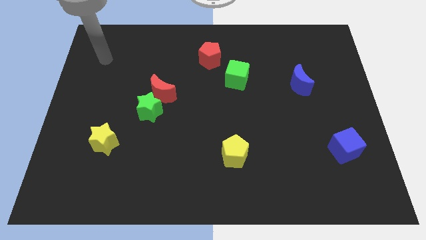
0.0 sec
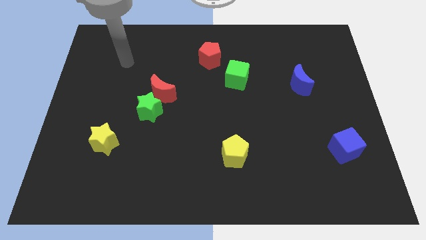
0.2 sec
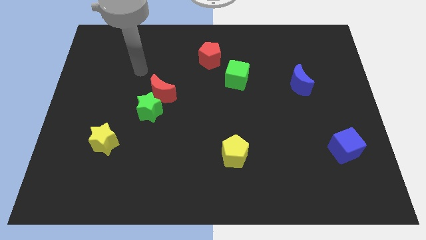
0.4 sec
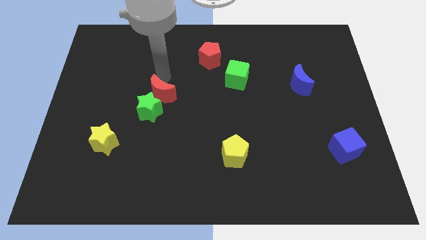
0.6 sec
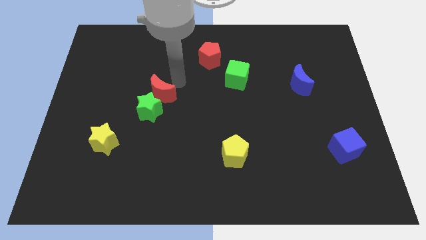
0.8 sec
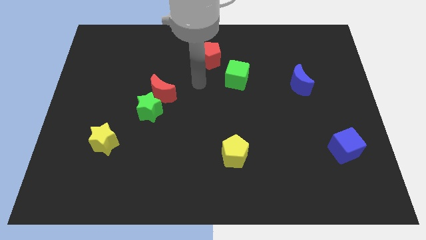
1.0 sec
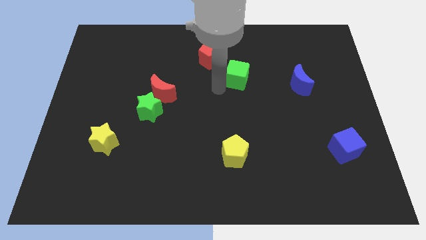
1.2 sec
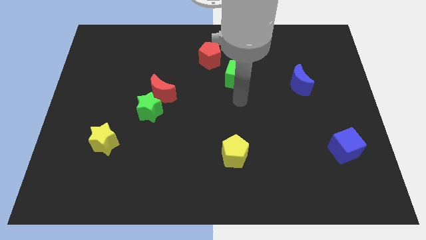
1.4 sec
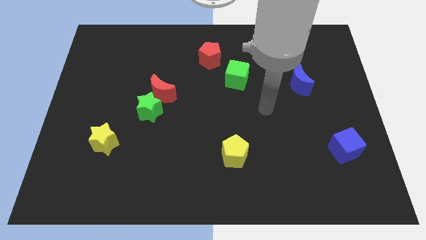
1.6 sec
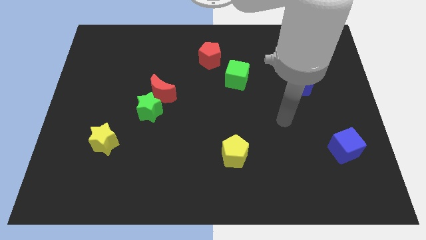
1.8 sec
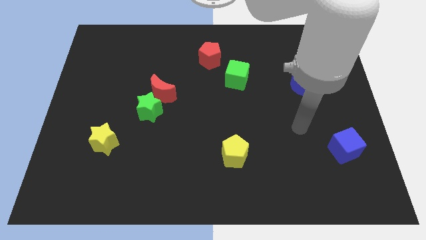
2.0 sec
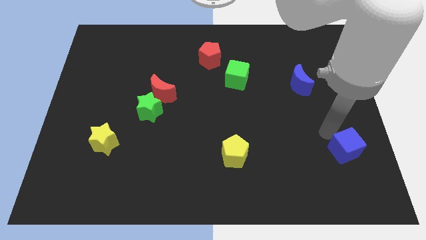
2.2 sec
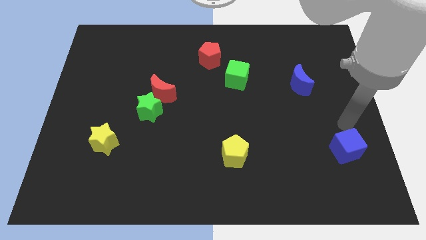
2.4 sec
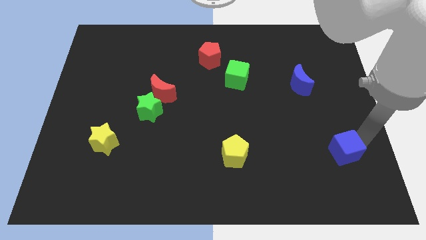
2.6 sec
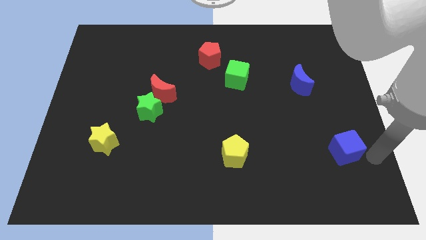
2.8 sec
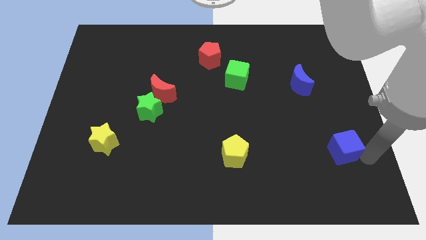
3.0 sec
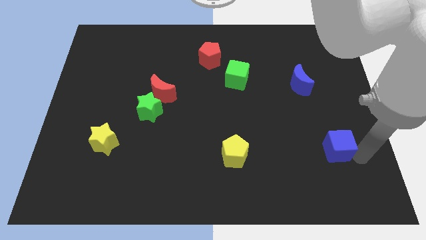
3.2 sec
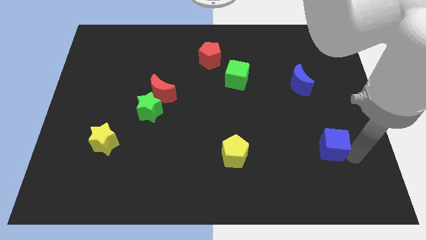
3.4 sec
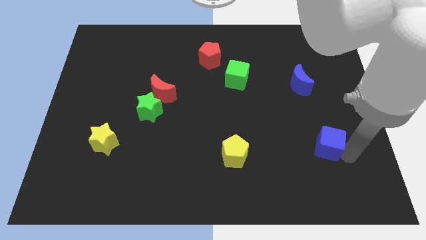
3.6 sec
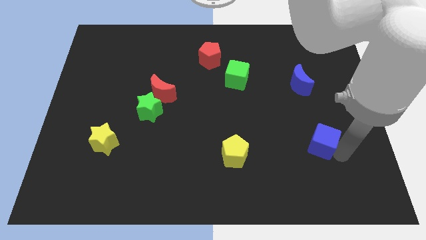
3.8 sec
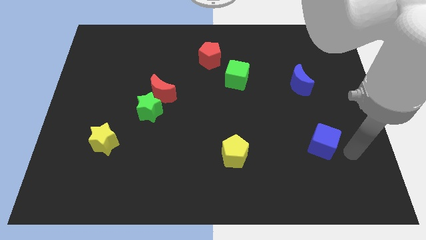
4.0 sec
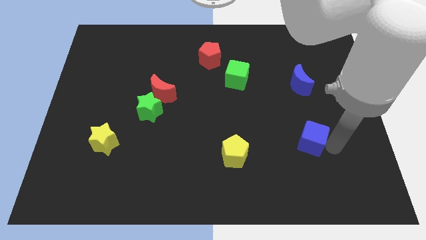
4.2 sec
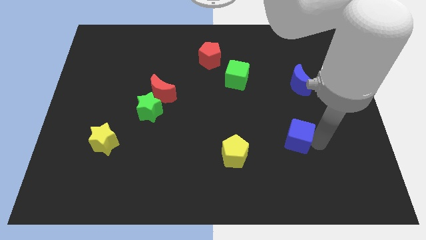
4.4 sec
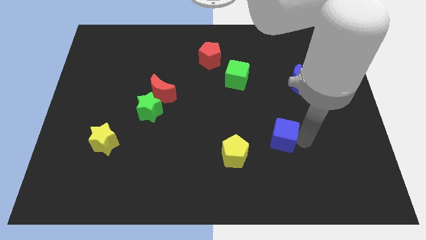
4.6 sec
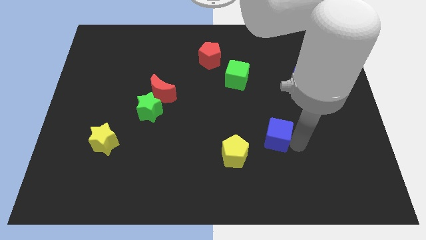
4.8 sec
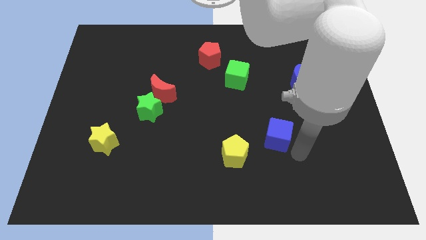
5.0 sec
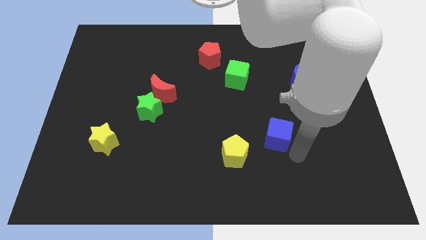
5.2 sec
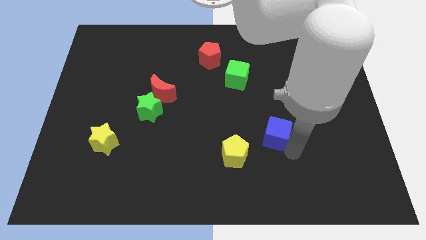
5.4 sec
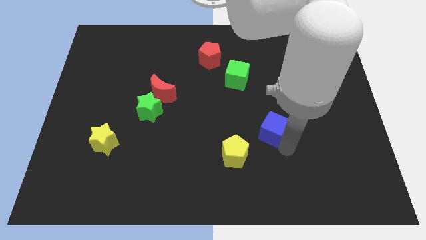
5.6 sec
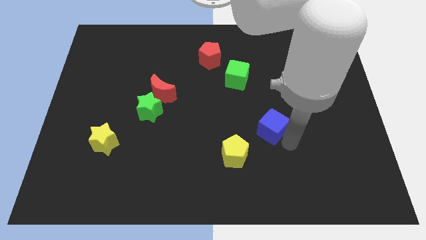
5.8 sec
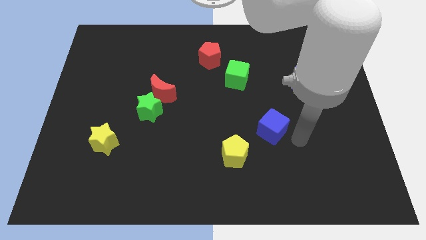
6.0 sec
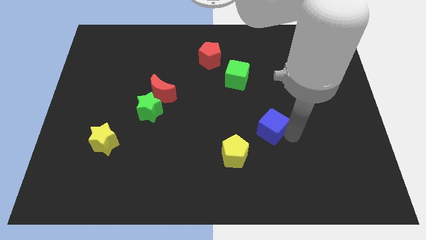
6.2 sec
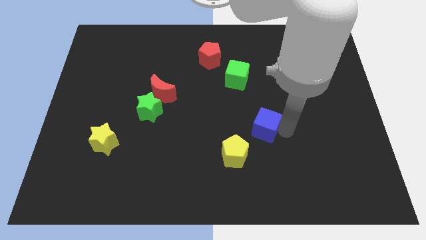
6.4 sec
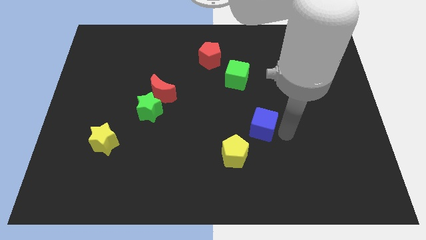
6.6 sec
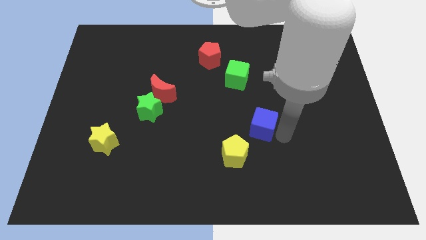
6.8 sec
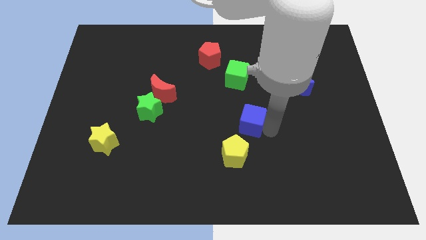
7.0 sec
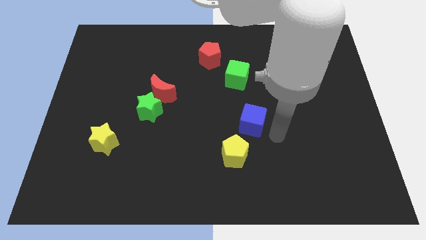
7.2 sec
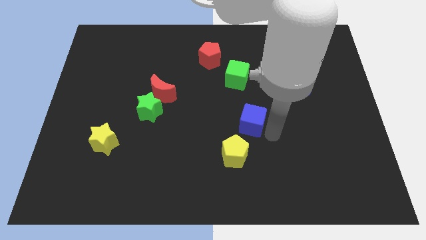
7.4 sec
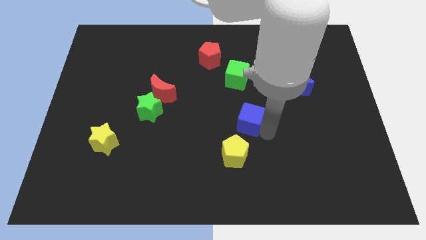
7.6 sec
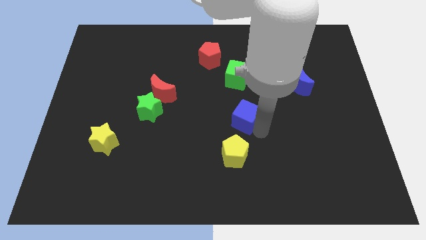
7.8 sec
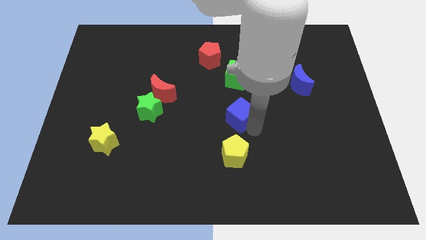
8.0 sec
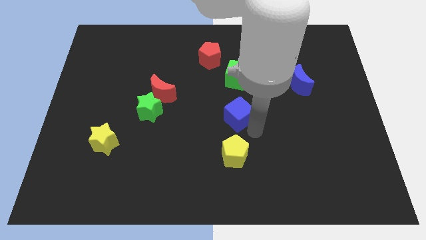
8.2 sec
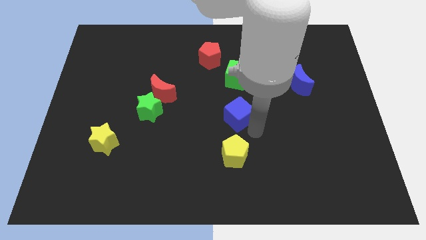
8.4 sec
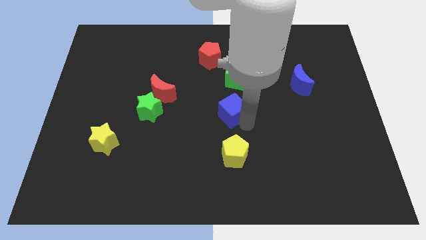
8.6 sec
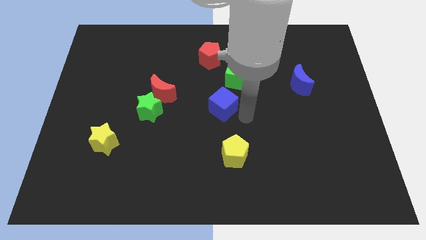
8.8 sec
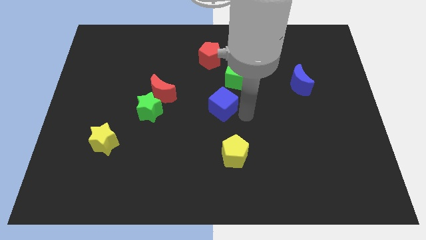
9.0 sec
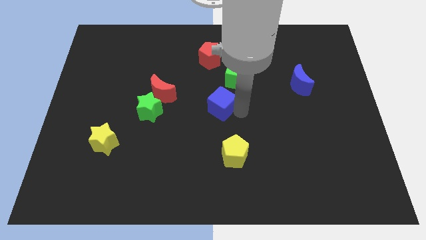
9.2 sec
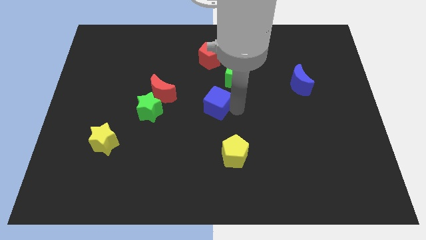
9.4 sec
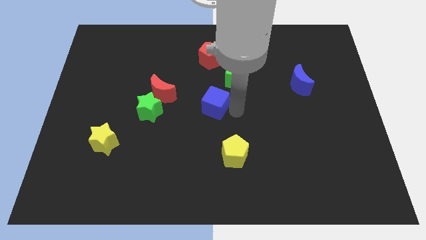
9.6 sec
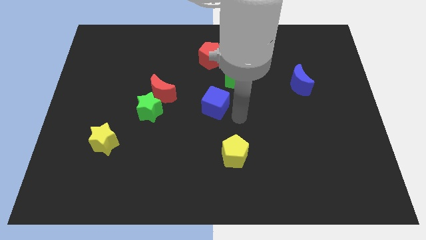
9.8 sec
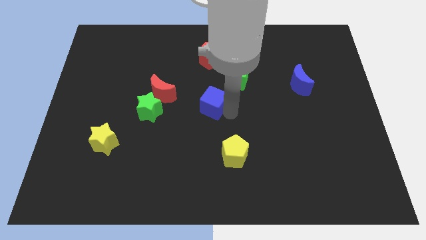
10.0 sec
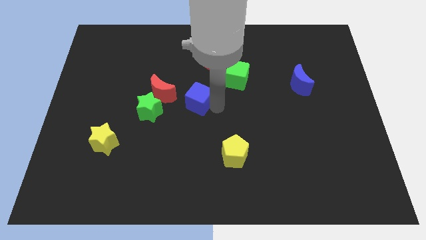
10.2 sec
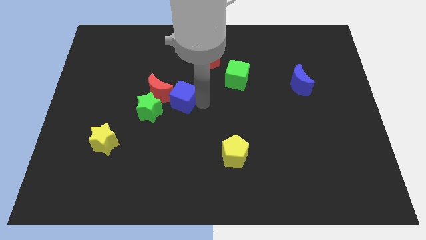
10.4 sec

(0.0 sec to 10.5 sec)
slide the blue cube to the red moon
